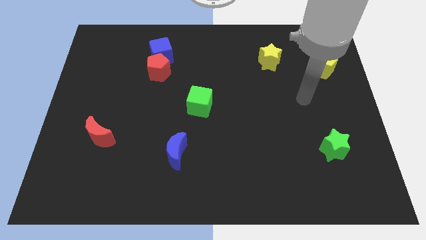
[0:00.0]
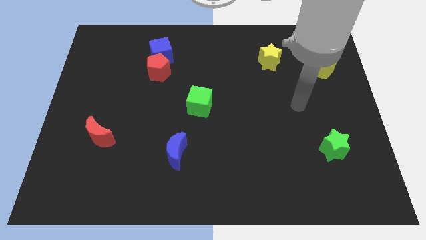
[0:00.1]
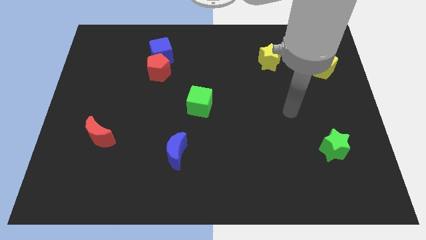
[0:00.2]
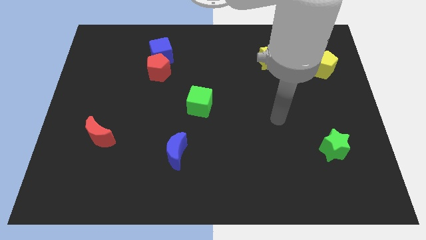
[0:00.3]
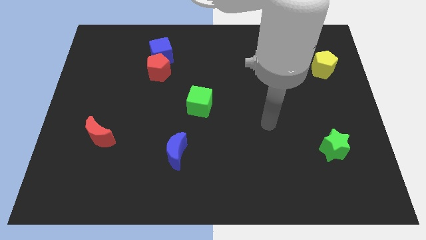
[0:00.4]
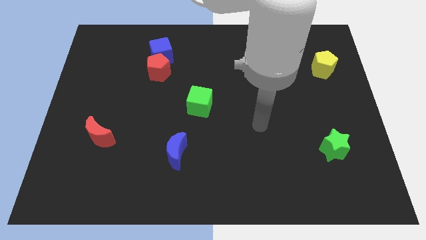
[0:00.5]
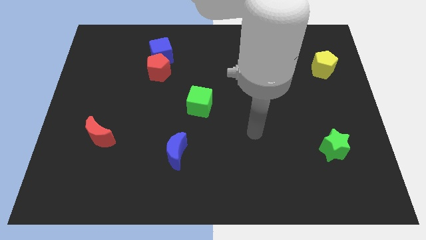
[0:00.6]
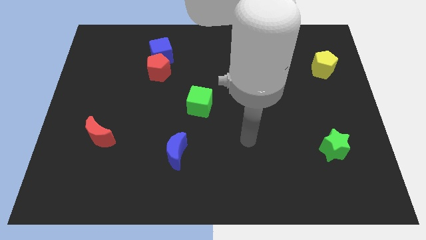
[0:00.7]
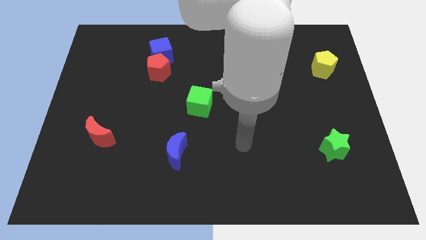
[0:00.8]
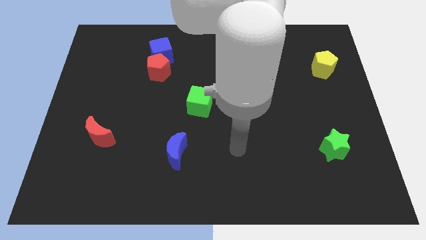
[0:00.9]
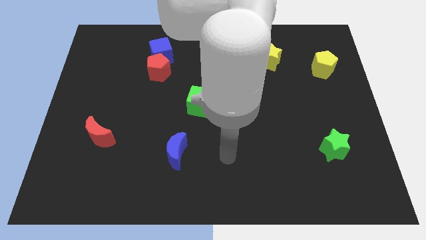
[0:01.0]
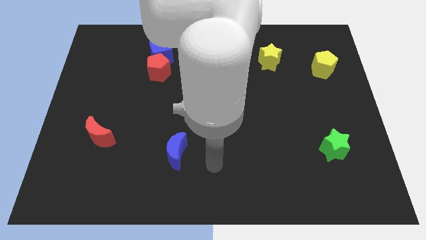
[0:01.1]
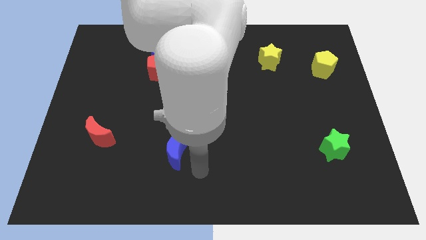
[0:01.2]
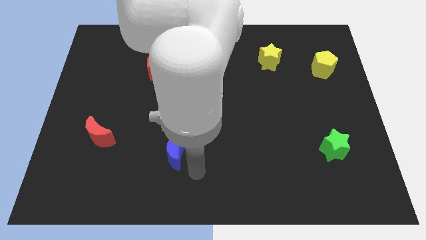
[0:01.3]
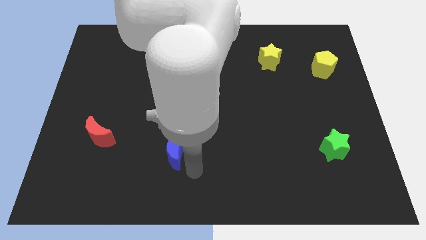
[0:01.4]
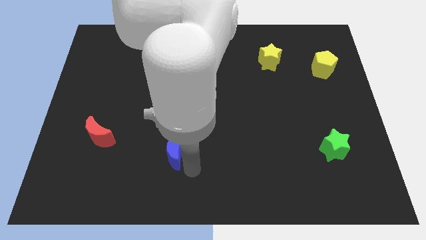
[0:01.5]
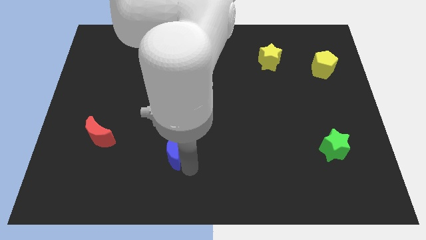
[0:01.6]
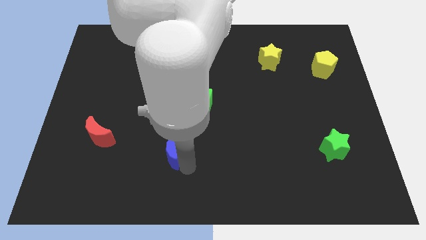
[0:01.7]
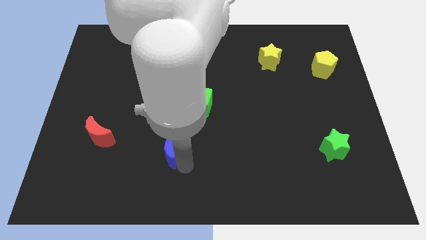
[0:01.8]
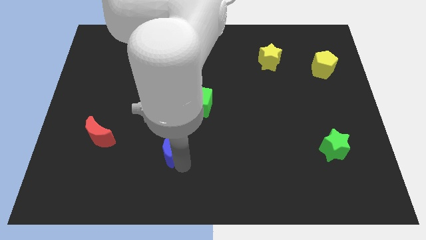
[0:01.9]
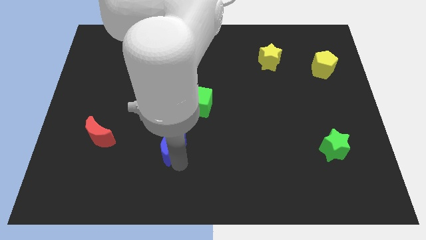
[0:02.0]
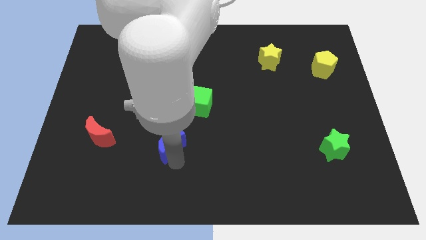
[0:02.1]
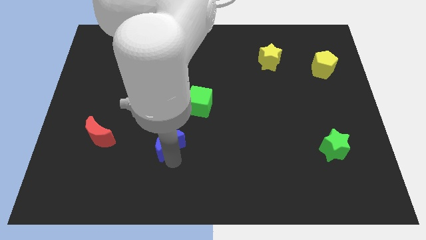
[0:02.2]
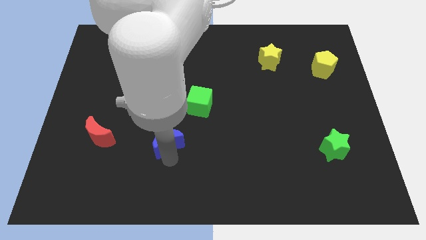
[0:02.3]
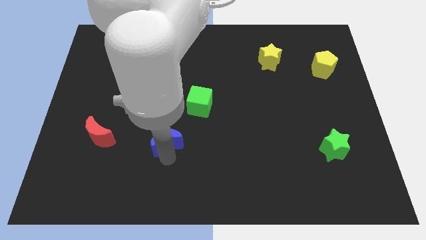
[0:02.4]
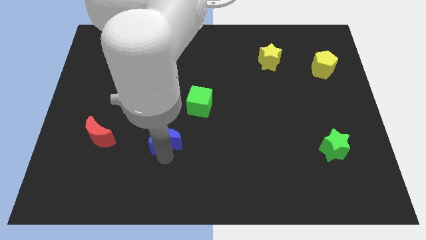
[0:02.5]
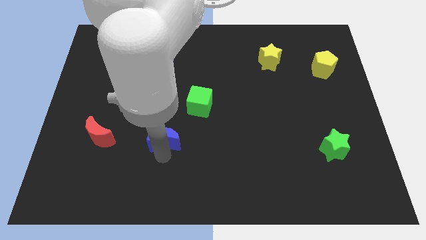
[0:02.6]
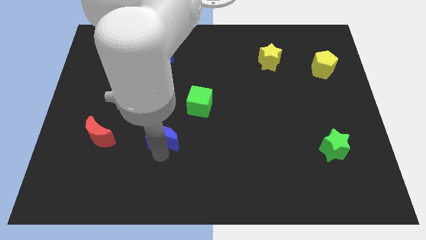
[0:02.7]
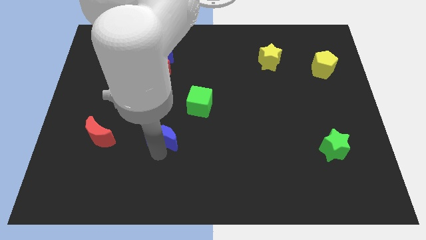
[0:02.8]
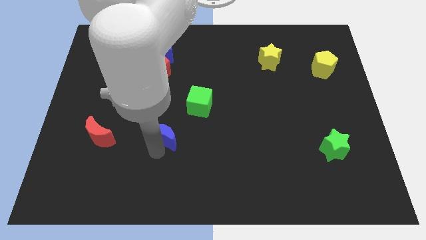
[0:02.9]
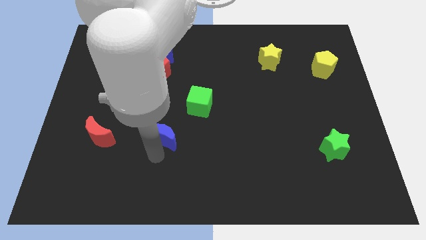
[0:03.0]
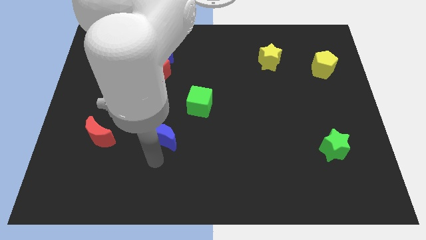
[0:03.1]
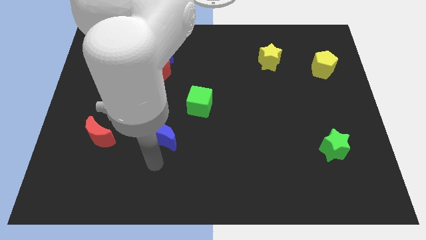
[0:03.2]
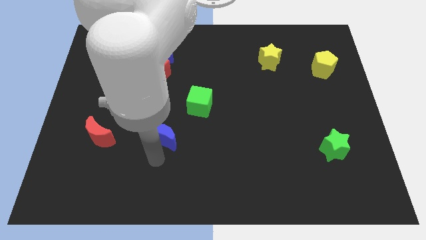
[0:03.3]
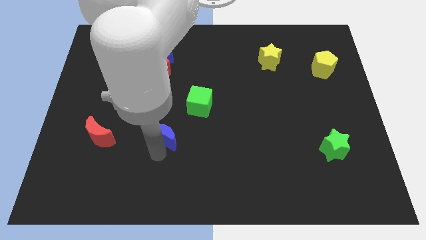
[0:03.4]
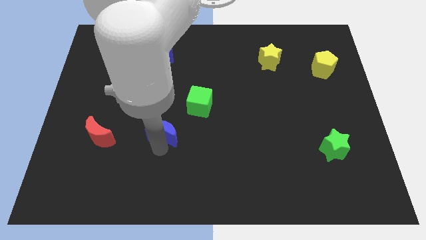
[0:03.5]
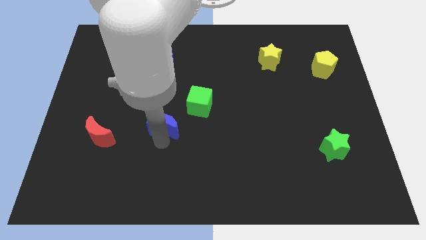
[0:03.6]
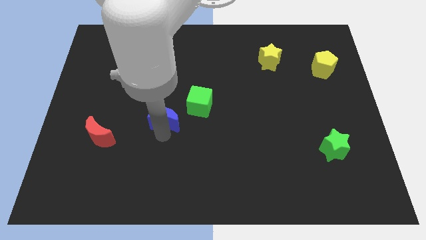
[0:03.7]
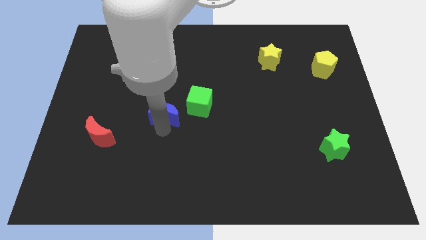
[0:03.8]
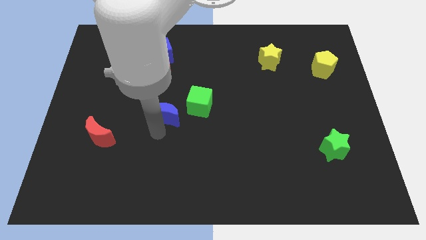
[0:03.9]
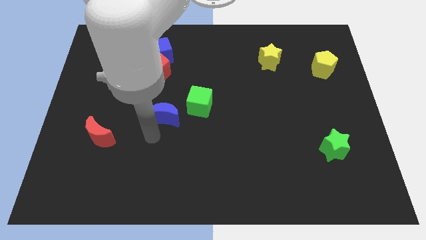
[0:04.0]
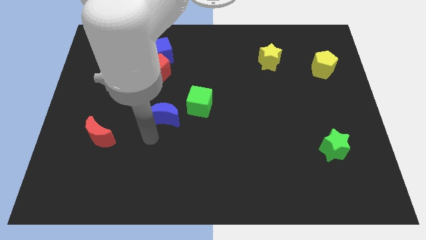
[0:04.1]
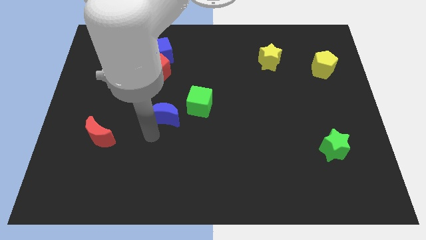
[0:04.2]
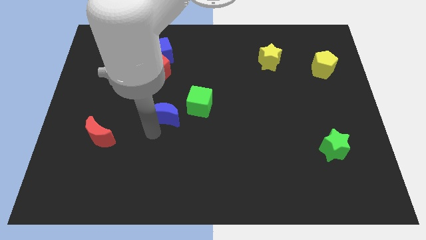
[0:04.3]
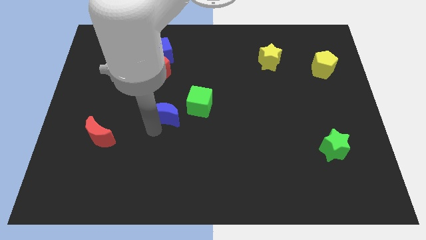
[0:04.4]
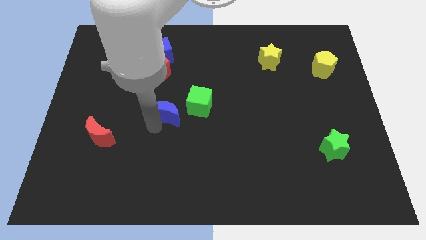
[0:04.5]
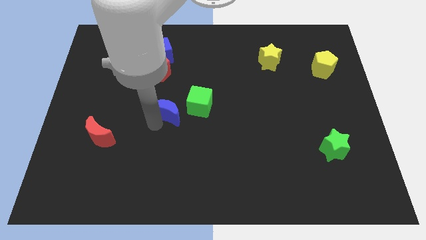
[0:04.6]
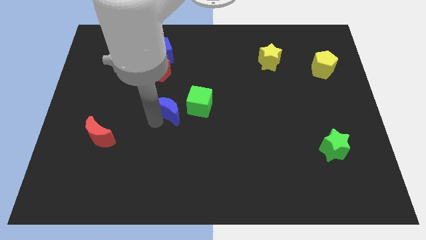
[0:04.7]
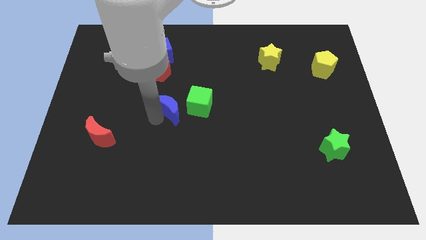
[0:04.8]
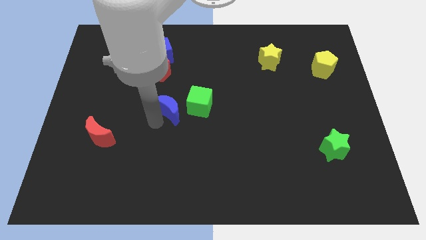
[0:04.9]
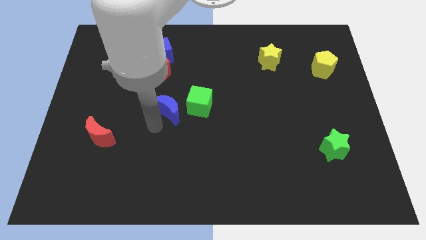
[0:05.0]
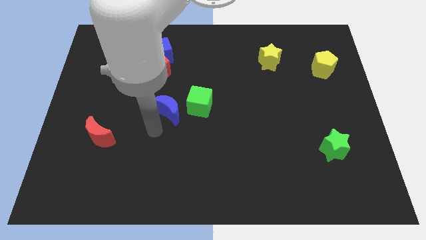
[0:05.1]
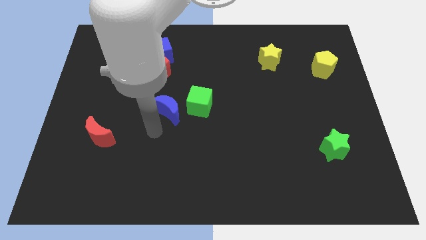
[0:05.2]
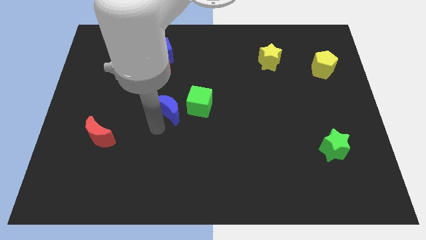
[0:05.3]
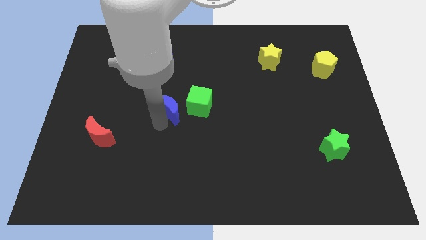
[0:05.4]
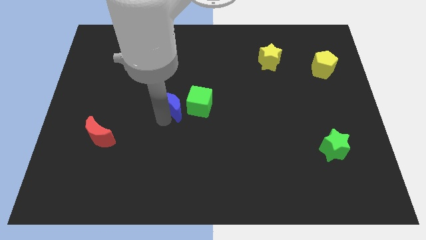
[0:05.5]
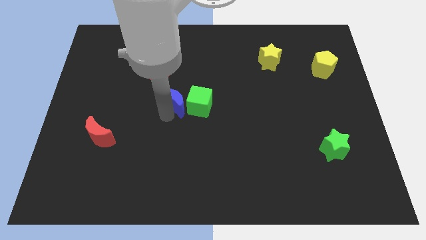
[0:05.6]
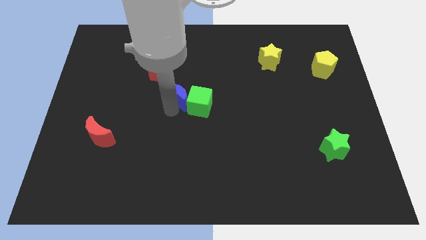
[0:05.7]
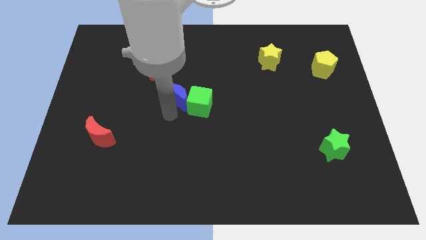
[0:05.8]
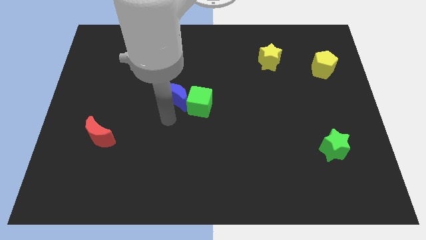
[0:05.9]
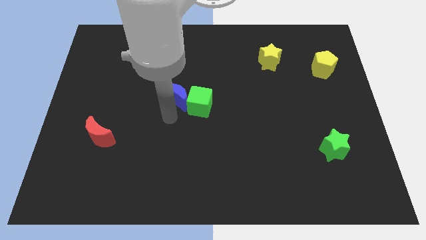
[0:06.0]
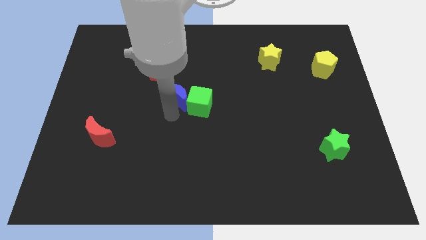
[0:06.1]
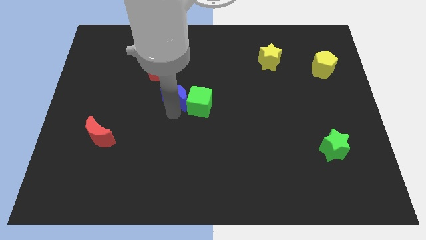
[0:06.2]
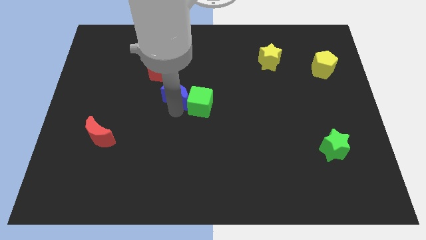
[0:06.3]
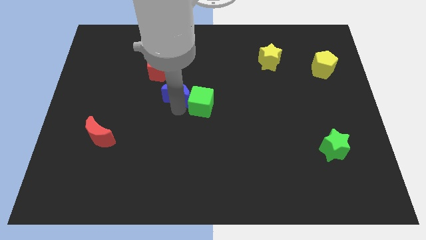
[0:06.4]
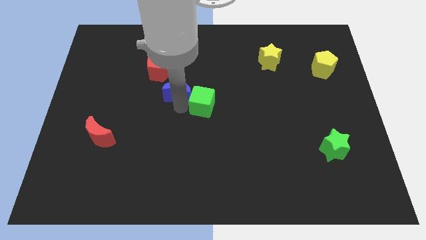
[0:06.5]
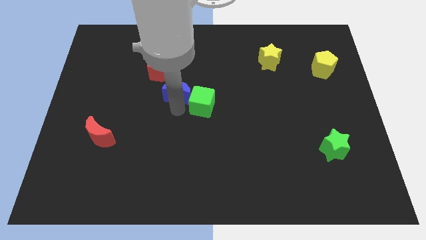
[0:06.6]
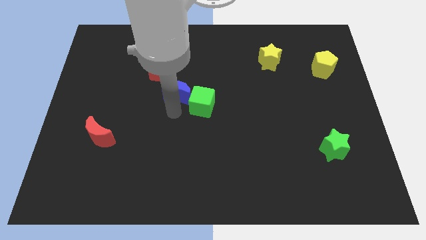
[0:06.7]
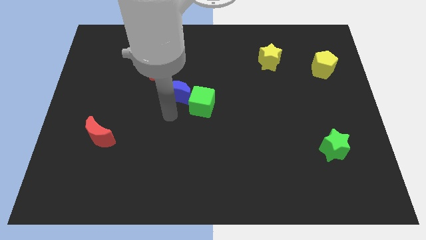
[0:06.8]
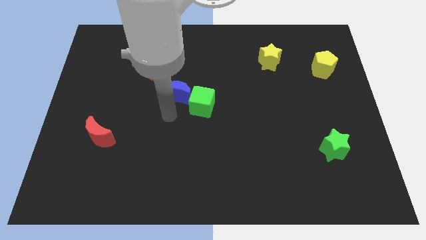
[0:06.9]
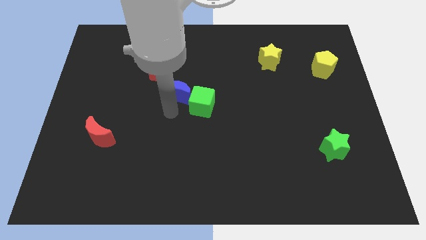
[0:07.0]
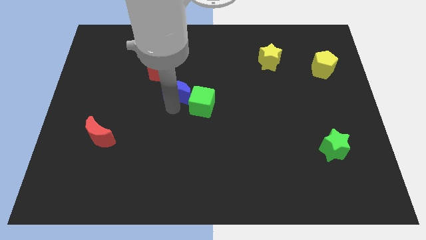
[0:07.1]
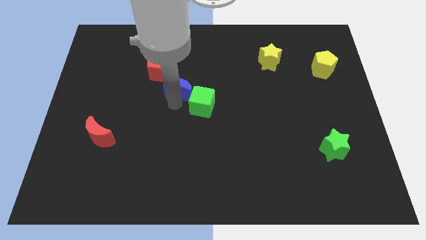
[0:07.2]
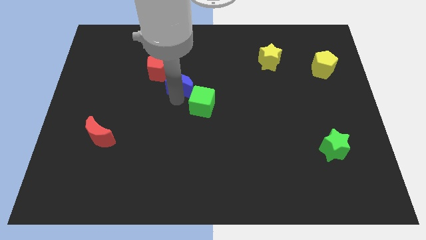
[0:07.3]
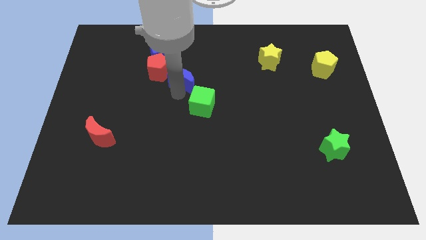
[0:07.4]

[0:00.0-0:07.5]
slide the blue moon to the right of the red pentagon

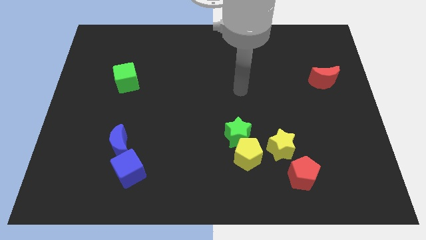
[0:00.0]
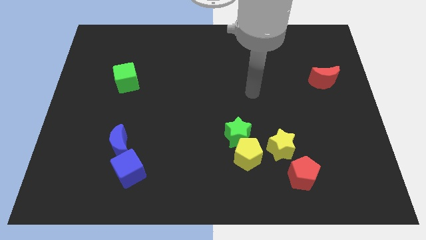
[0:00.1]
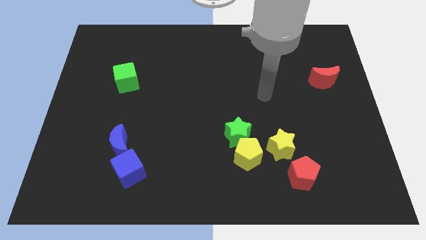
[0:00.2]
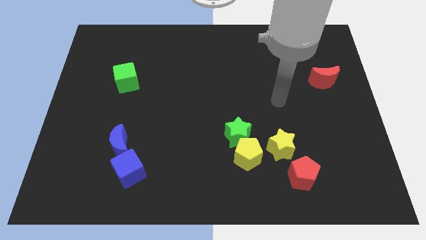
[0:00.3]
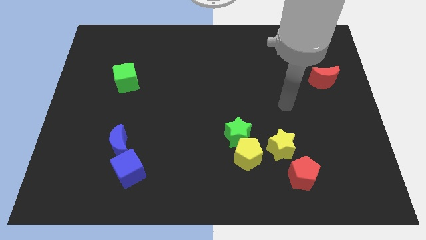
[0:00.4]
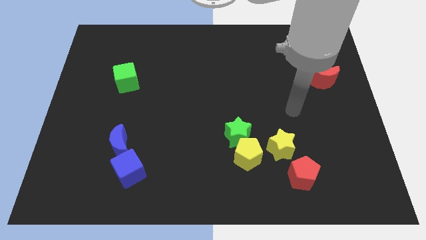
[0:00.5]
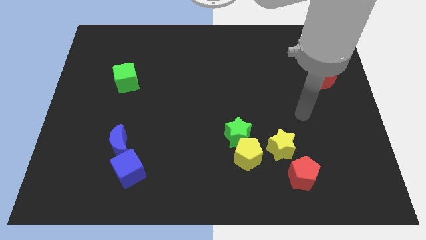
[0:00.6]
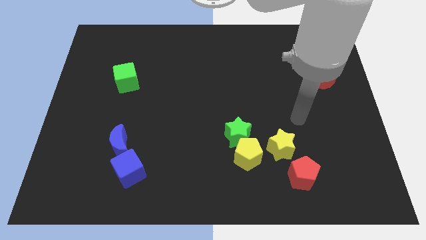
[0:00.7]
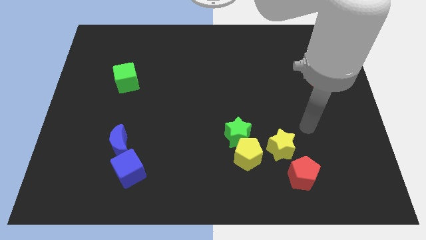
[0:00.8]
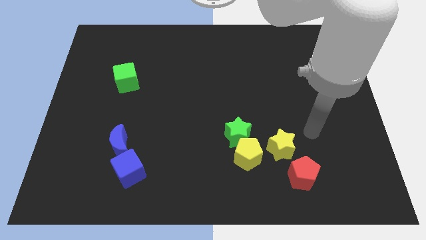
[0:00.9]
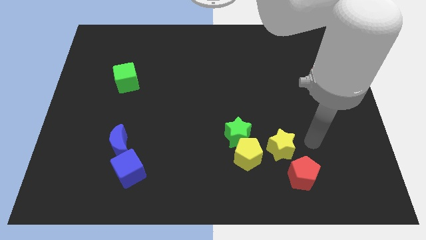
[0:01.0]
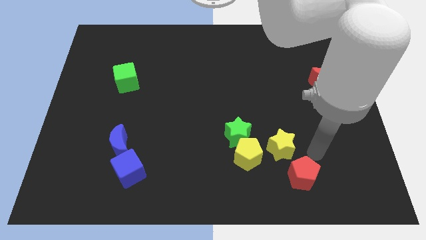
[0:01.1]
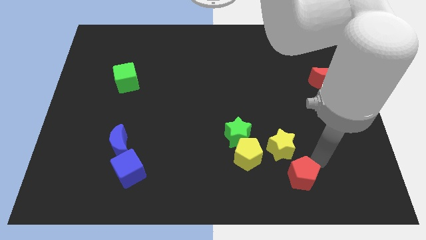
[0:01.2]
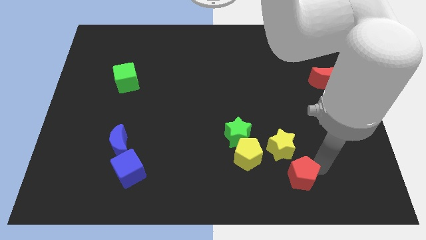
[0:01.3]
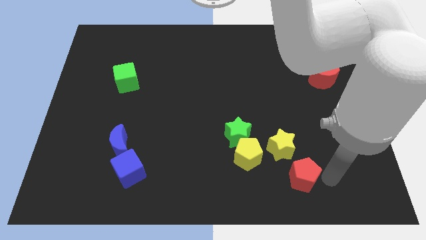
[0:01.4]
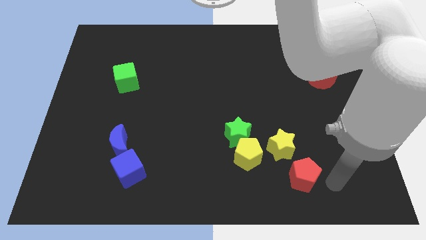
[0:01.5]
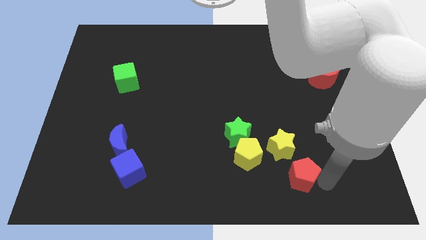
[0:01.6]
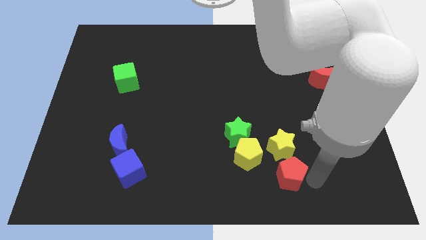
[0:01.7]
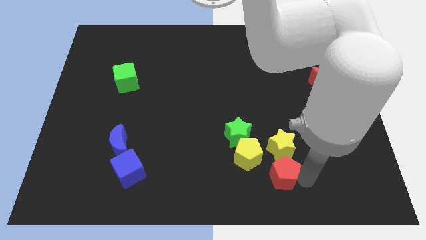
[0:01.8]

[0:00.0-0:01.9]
put the red pentagon diagonally down and to the left of the yellow star
